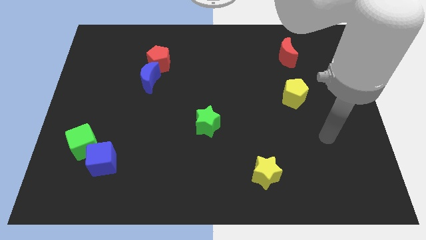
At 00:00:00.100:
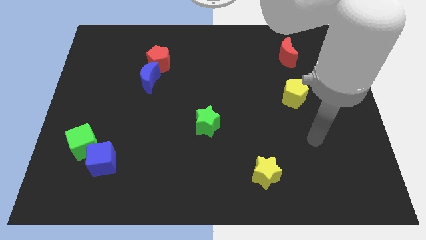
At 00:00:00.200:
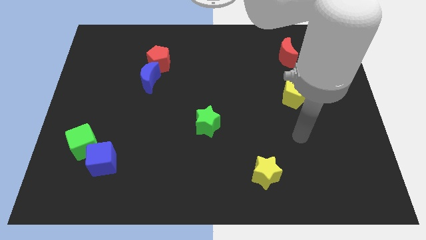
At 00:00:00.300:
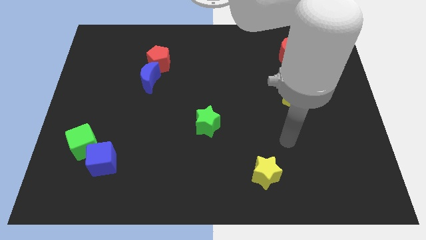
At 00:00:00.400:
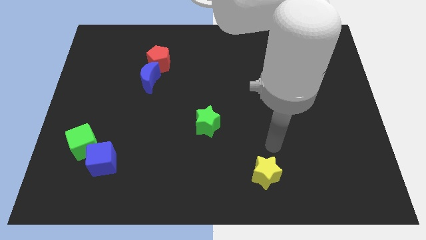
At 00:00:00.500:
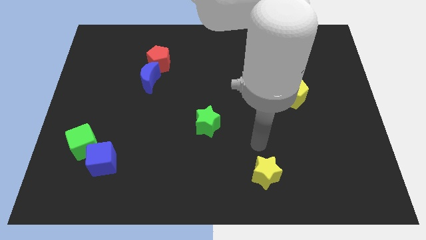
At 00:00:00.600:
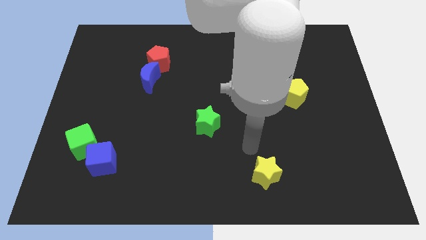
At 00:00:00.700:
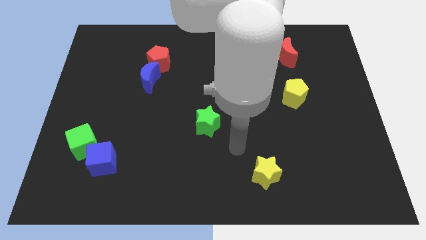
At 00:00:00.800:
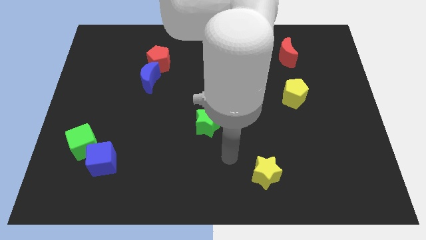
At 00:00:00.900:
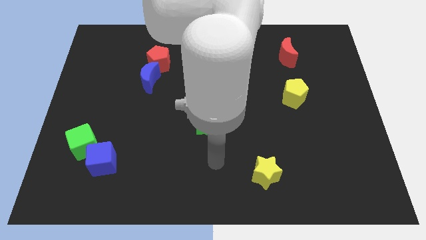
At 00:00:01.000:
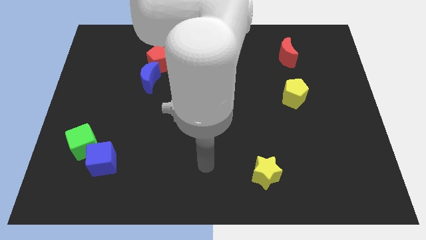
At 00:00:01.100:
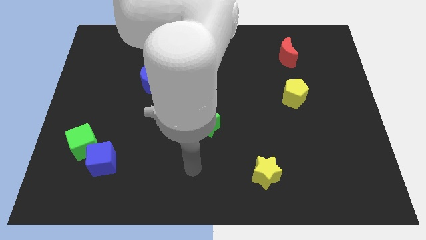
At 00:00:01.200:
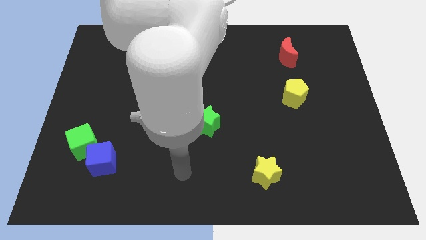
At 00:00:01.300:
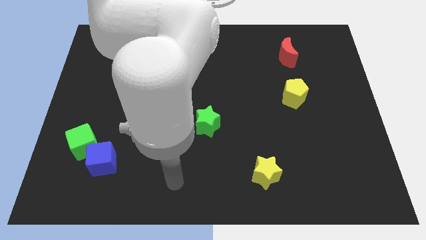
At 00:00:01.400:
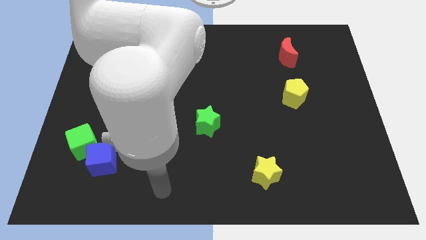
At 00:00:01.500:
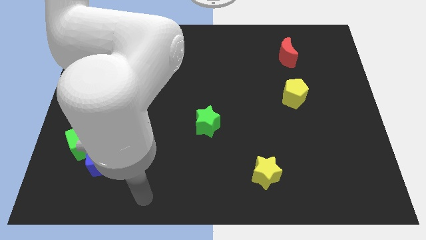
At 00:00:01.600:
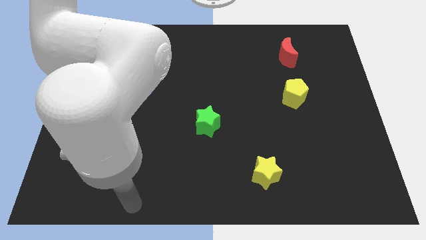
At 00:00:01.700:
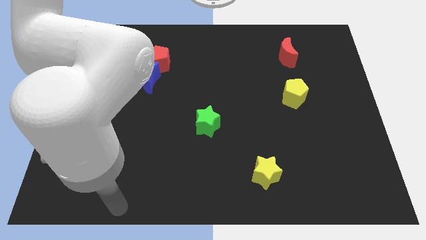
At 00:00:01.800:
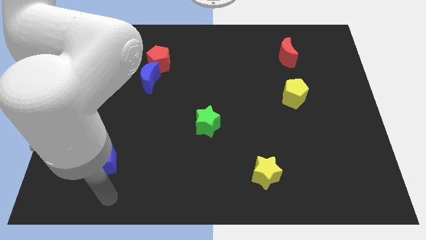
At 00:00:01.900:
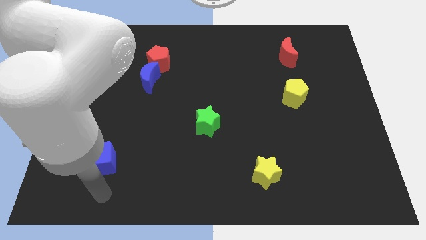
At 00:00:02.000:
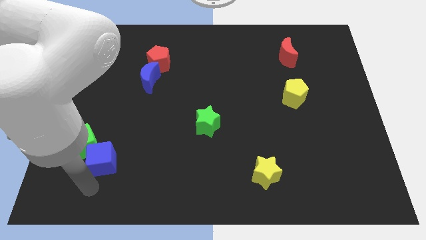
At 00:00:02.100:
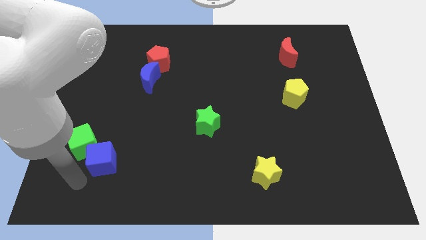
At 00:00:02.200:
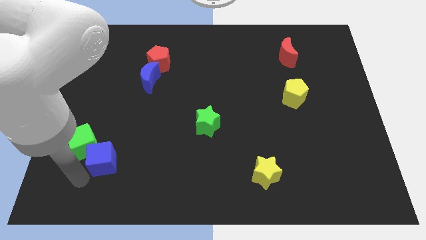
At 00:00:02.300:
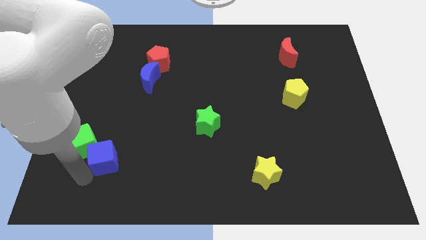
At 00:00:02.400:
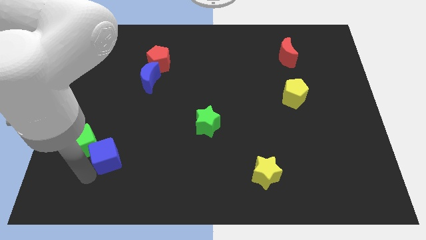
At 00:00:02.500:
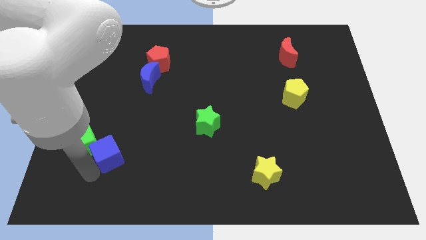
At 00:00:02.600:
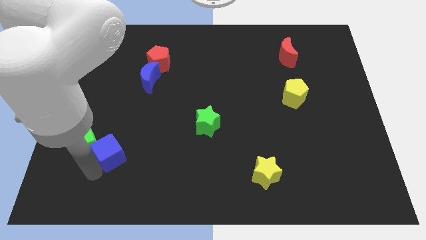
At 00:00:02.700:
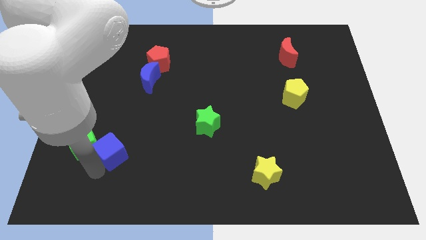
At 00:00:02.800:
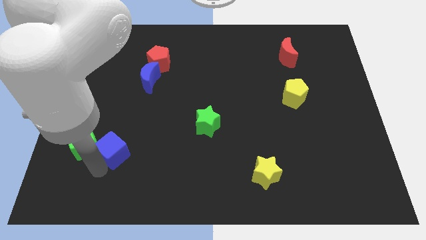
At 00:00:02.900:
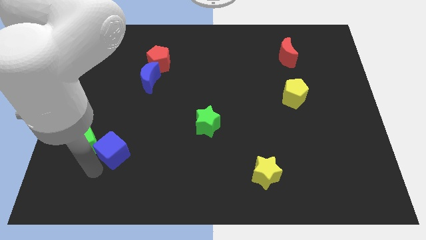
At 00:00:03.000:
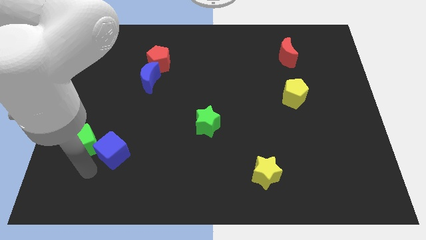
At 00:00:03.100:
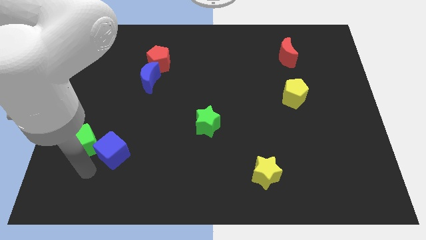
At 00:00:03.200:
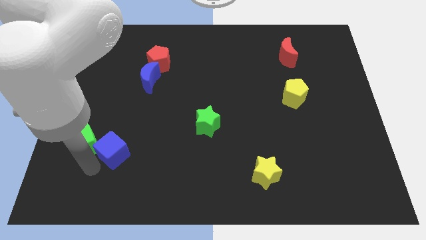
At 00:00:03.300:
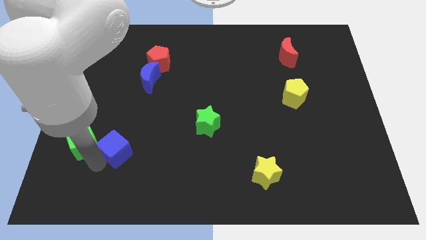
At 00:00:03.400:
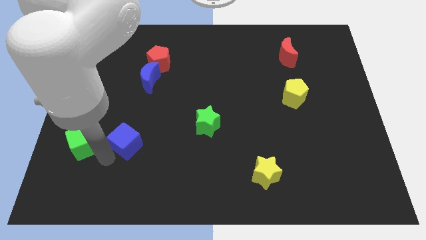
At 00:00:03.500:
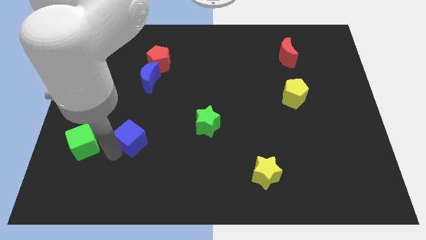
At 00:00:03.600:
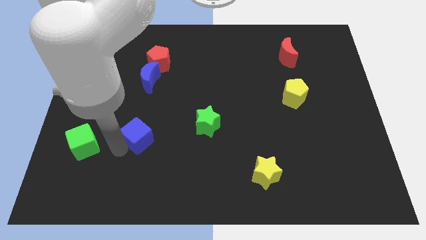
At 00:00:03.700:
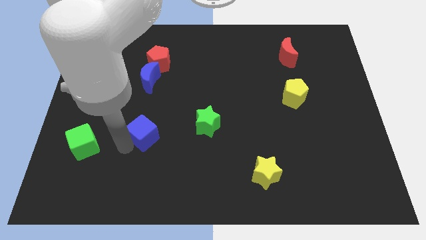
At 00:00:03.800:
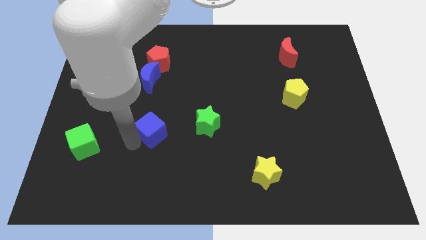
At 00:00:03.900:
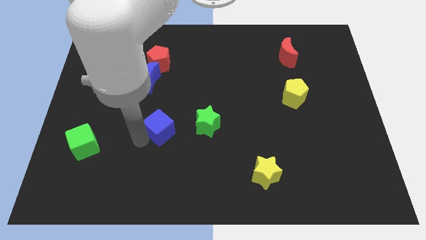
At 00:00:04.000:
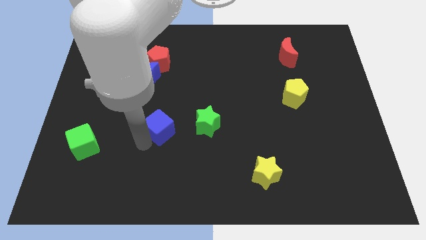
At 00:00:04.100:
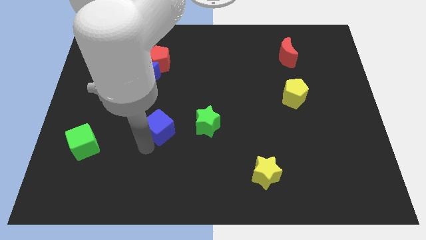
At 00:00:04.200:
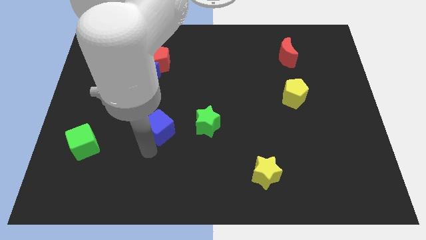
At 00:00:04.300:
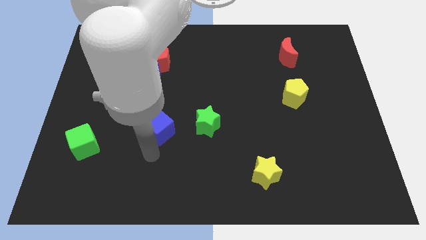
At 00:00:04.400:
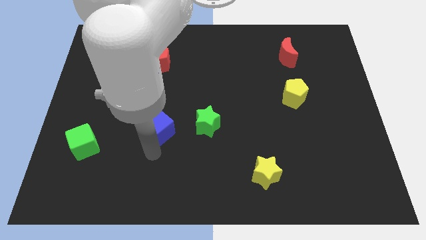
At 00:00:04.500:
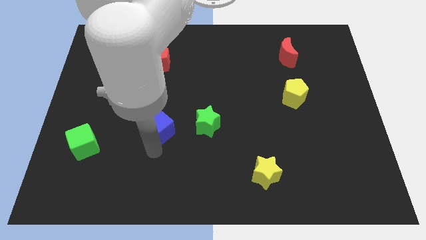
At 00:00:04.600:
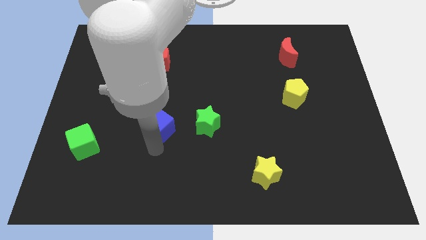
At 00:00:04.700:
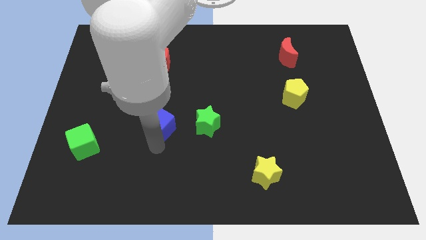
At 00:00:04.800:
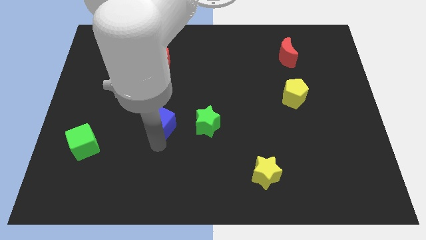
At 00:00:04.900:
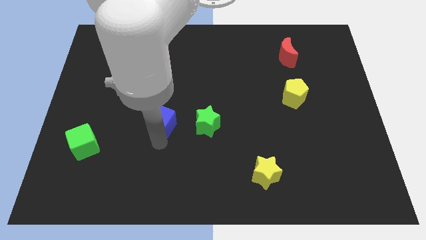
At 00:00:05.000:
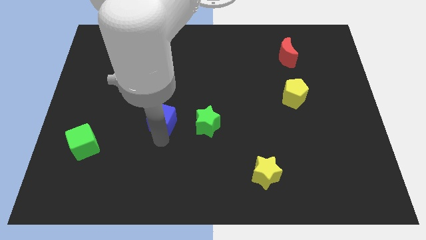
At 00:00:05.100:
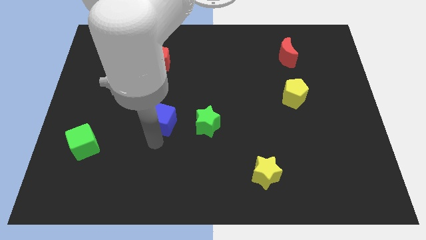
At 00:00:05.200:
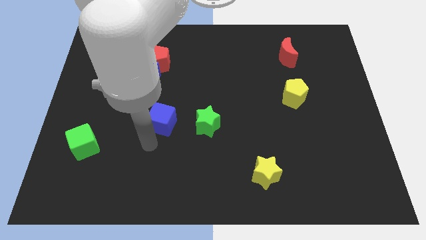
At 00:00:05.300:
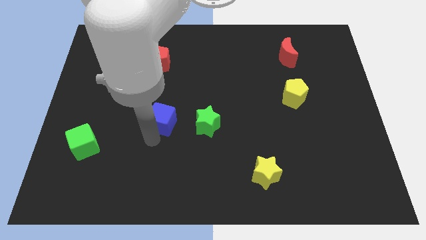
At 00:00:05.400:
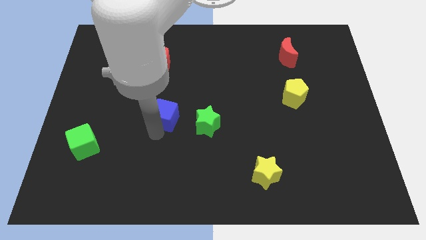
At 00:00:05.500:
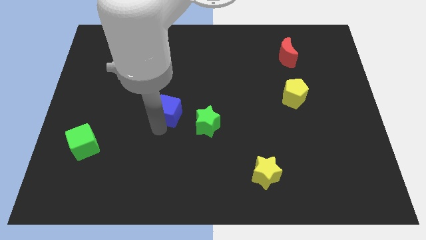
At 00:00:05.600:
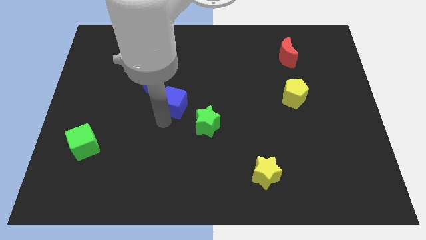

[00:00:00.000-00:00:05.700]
push the blue cube upwards and then right

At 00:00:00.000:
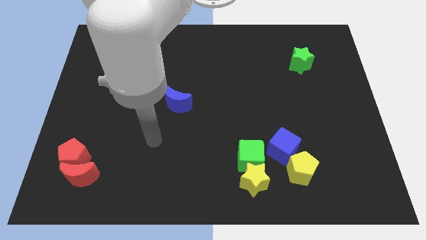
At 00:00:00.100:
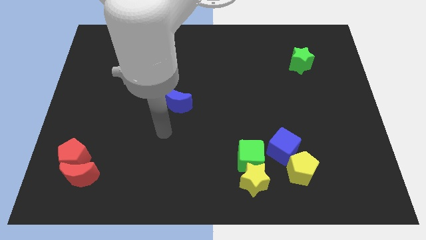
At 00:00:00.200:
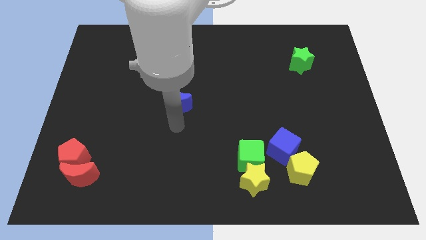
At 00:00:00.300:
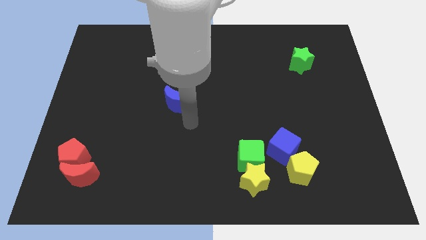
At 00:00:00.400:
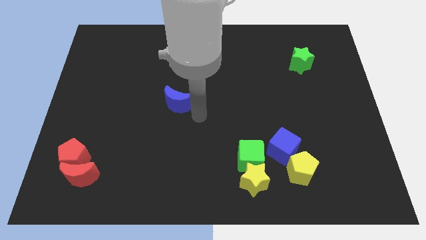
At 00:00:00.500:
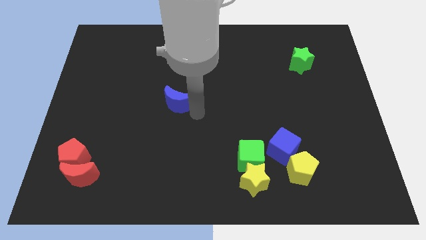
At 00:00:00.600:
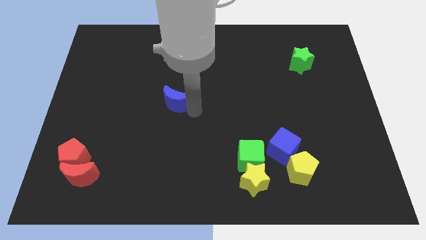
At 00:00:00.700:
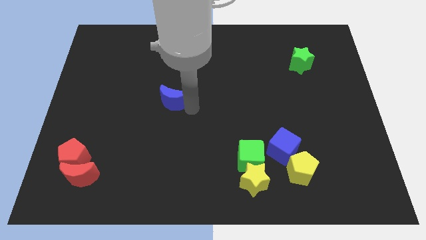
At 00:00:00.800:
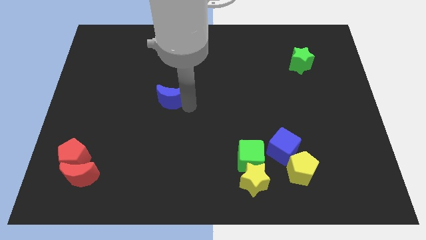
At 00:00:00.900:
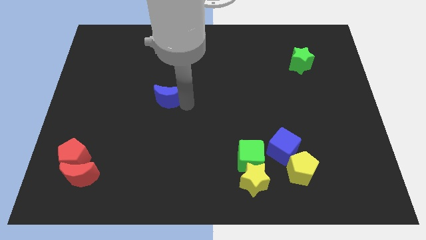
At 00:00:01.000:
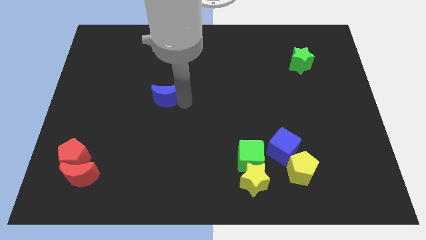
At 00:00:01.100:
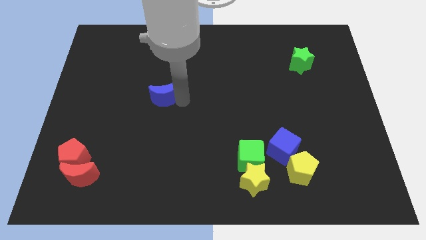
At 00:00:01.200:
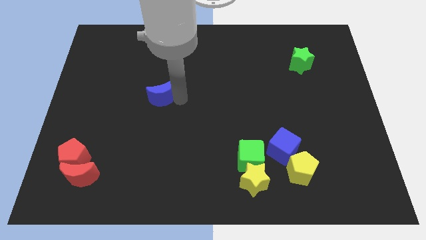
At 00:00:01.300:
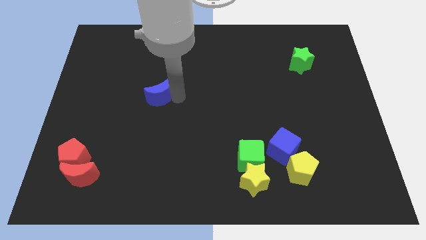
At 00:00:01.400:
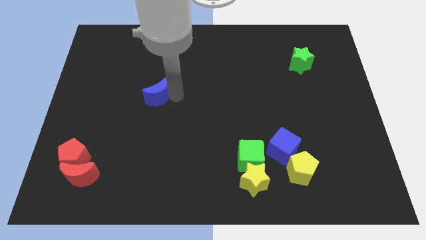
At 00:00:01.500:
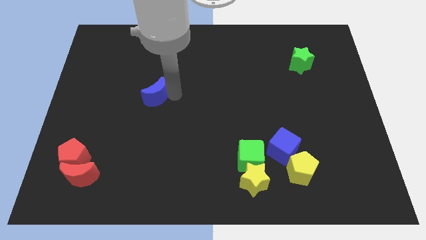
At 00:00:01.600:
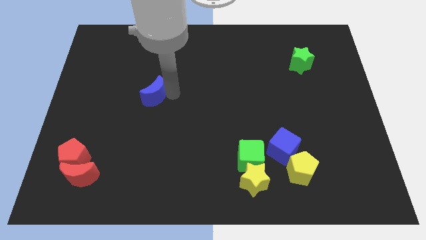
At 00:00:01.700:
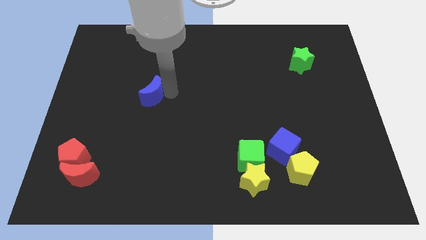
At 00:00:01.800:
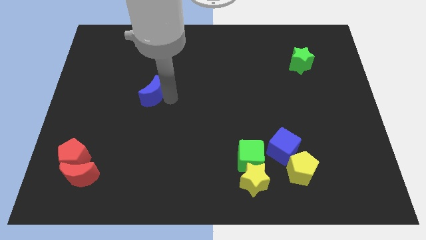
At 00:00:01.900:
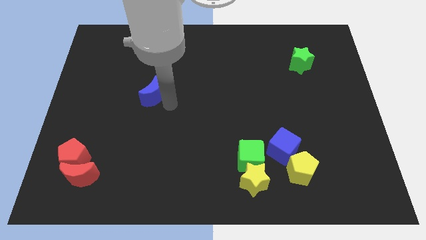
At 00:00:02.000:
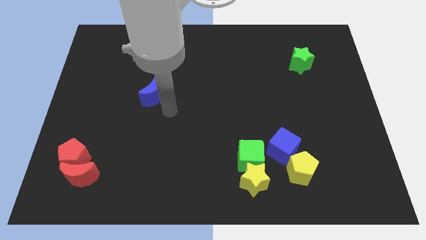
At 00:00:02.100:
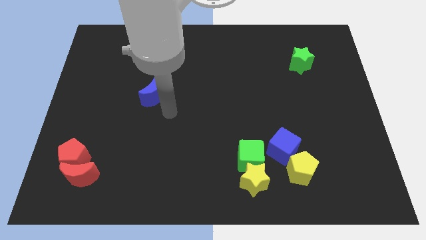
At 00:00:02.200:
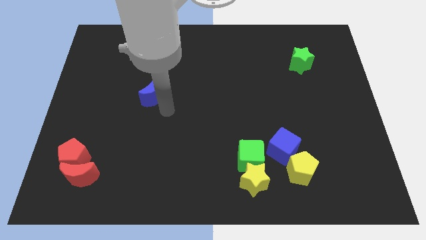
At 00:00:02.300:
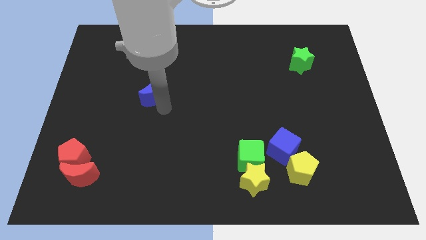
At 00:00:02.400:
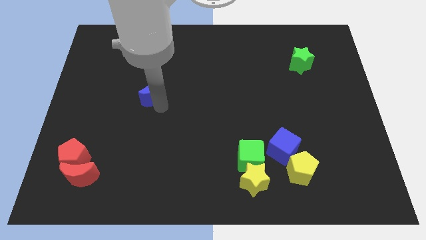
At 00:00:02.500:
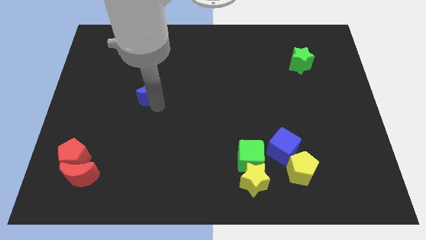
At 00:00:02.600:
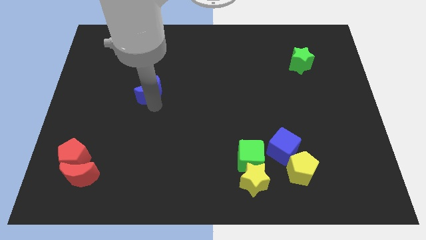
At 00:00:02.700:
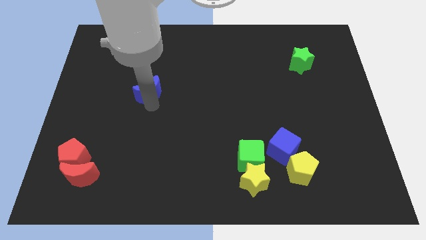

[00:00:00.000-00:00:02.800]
push the blue moon a little up and then to the left
